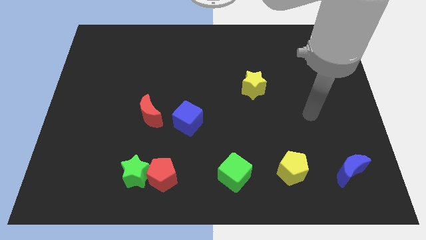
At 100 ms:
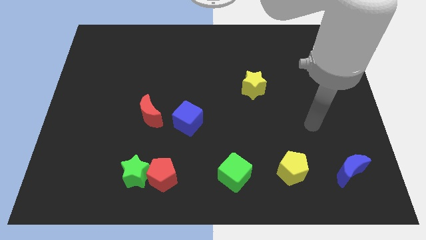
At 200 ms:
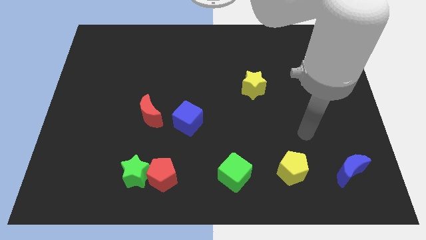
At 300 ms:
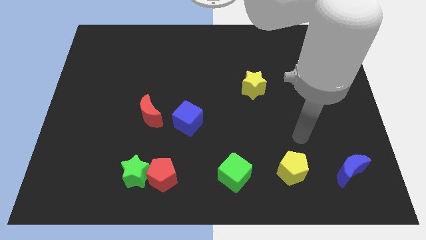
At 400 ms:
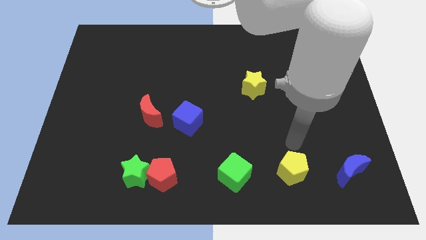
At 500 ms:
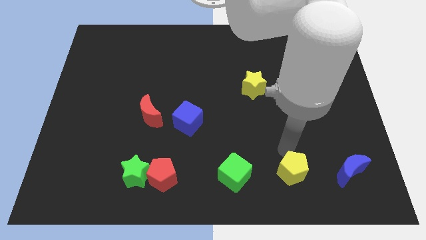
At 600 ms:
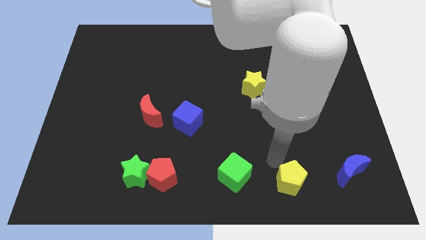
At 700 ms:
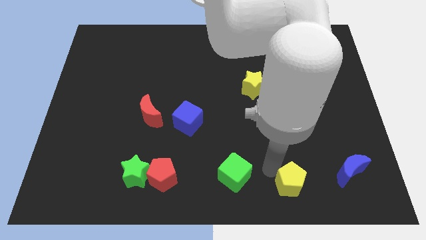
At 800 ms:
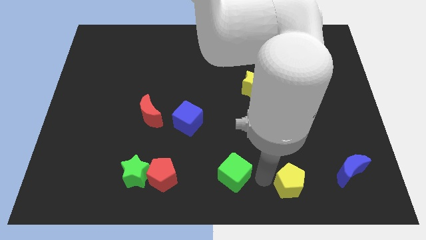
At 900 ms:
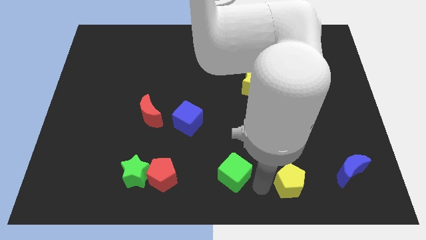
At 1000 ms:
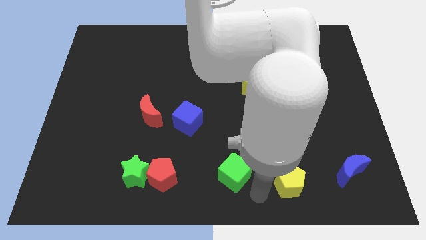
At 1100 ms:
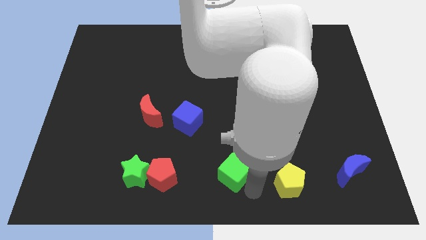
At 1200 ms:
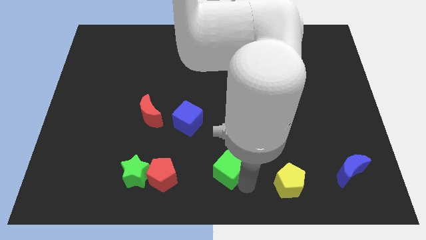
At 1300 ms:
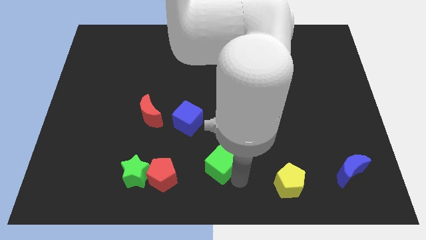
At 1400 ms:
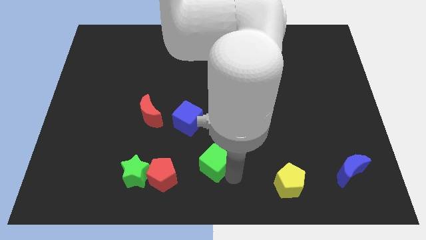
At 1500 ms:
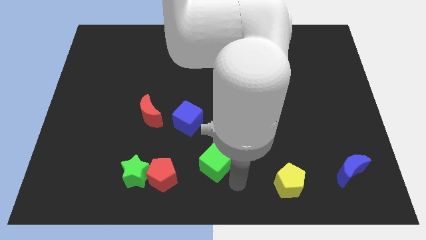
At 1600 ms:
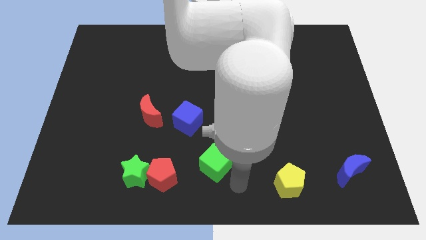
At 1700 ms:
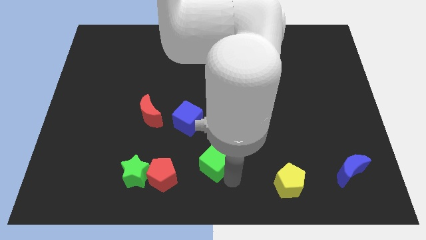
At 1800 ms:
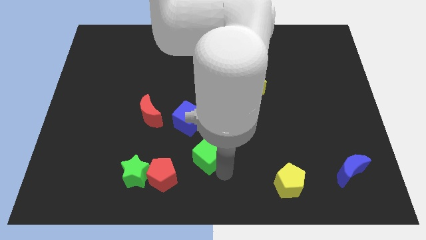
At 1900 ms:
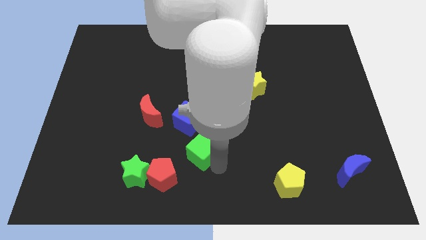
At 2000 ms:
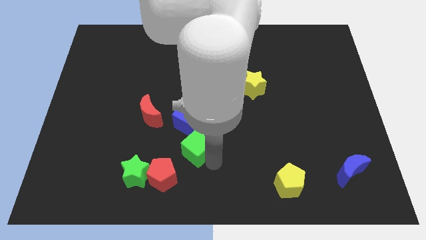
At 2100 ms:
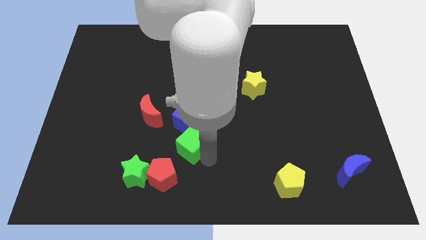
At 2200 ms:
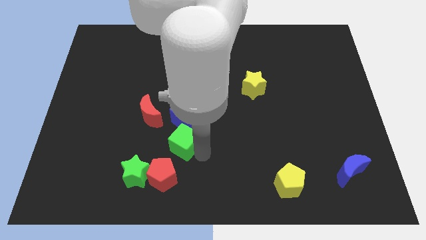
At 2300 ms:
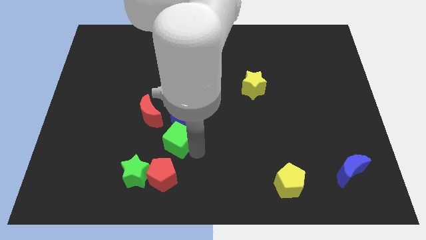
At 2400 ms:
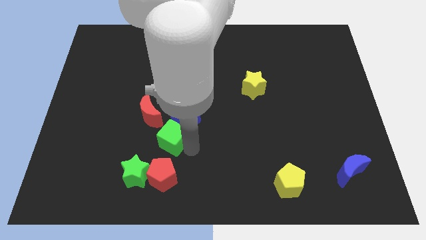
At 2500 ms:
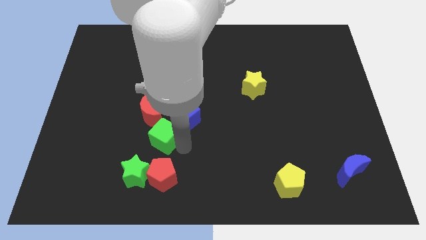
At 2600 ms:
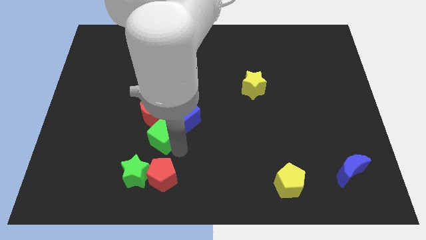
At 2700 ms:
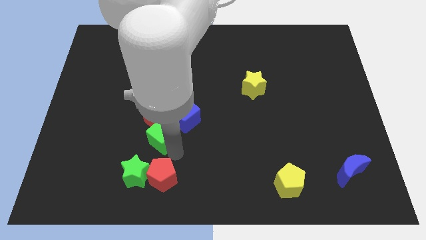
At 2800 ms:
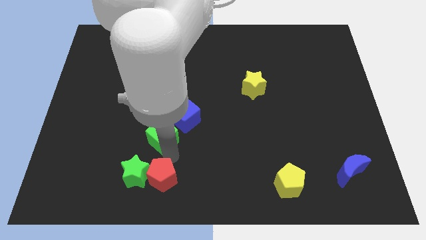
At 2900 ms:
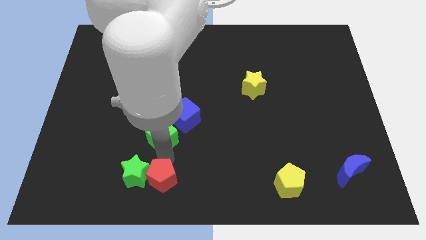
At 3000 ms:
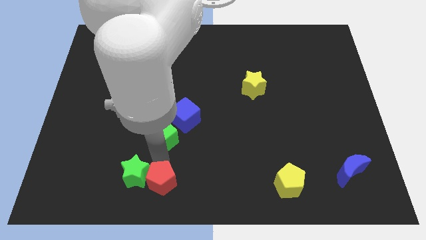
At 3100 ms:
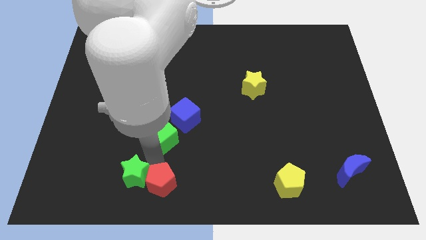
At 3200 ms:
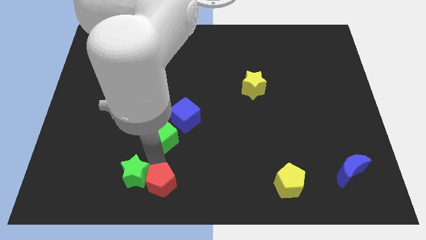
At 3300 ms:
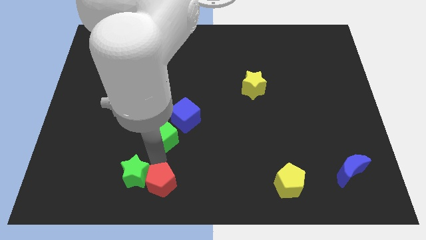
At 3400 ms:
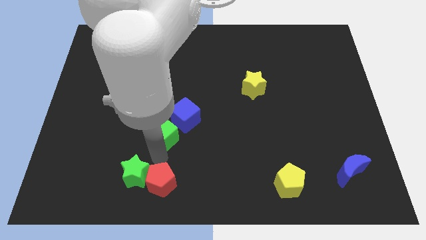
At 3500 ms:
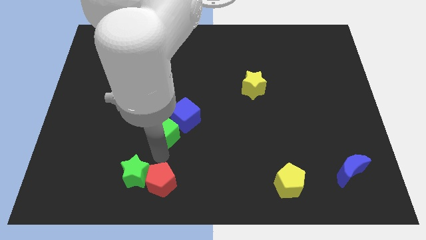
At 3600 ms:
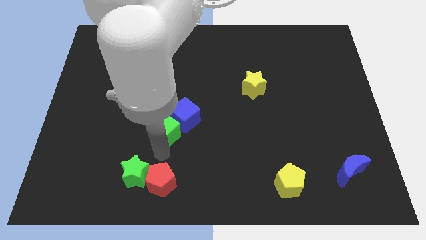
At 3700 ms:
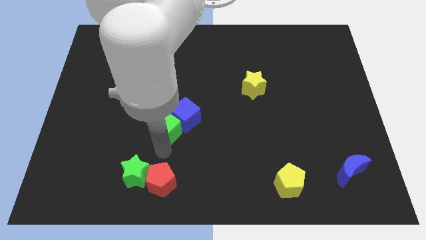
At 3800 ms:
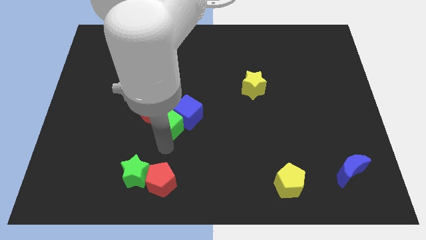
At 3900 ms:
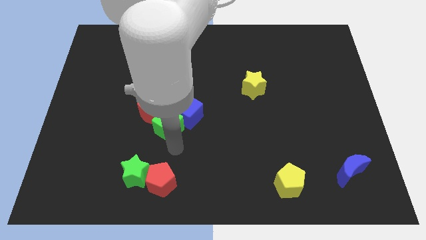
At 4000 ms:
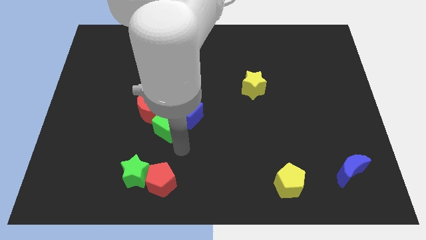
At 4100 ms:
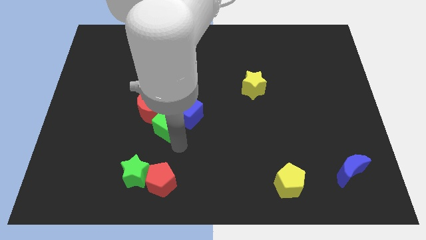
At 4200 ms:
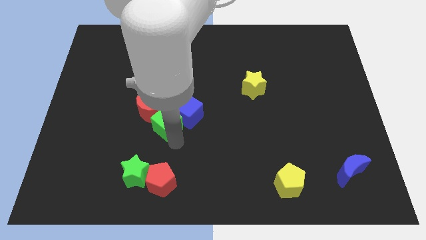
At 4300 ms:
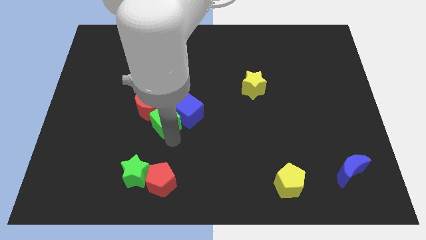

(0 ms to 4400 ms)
slide the green cube up and then to the left

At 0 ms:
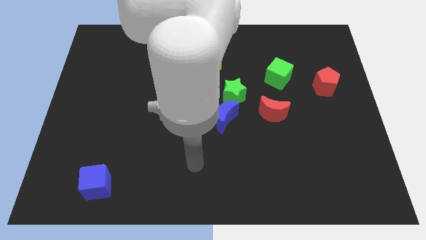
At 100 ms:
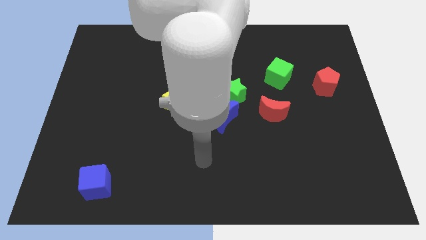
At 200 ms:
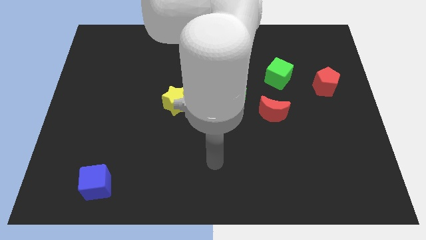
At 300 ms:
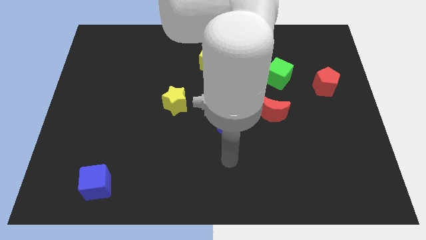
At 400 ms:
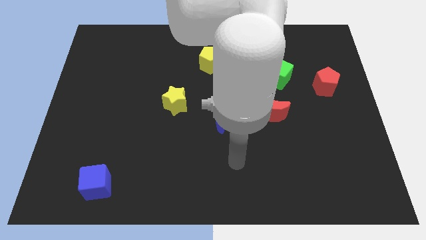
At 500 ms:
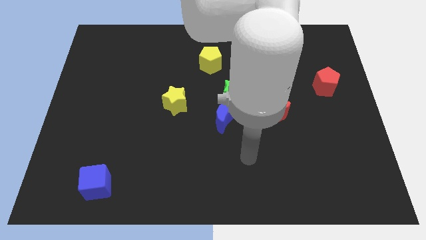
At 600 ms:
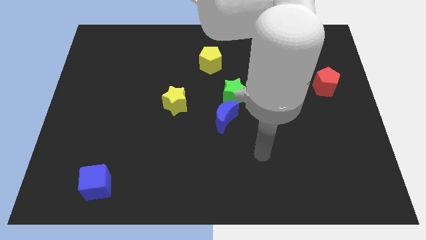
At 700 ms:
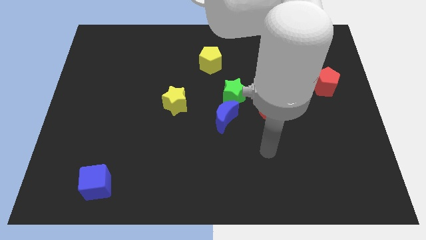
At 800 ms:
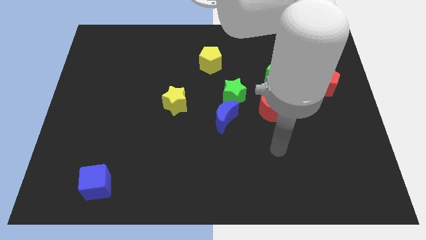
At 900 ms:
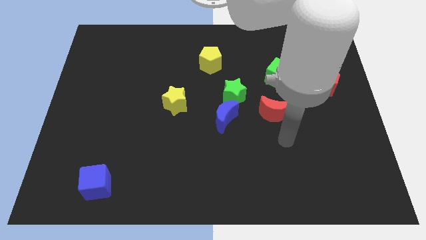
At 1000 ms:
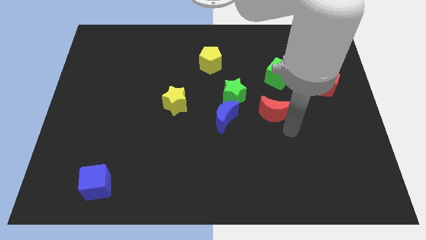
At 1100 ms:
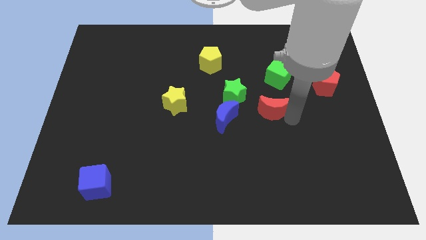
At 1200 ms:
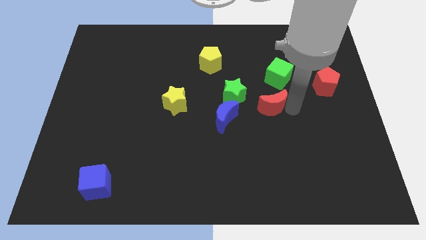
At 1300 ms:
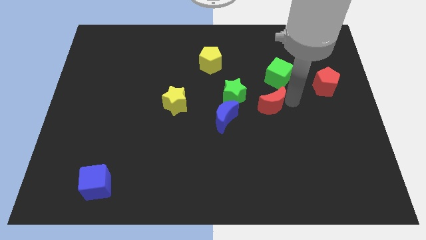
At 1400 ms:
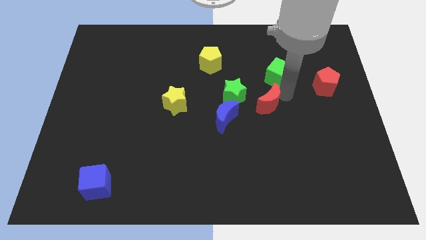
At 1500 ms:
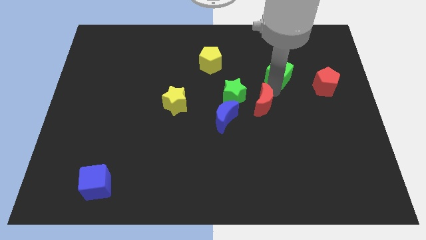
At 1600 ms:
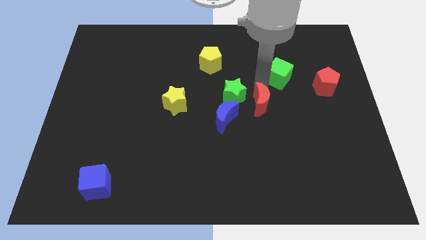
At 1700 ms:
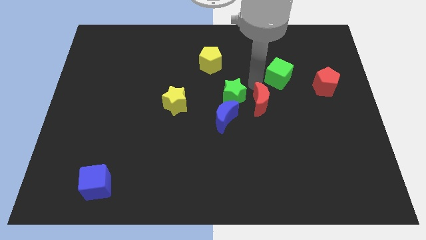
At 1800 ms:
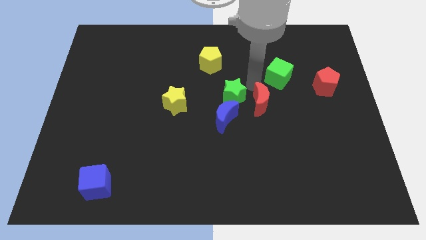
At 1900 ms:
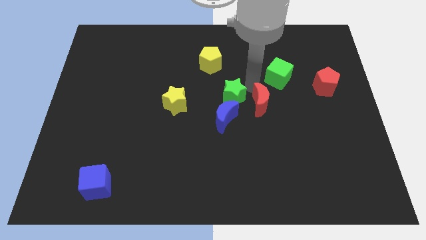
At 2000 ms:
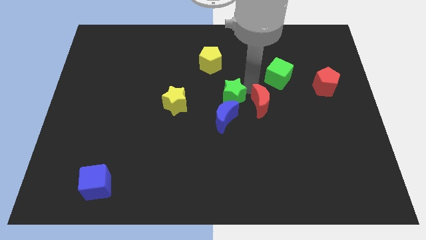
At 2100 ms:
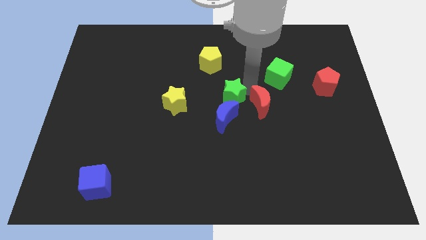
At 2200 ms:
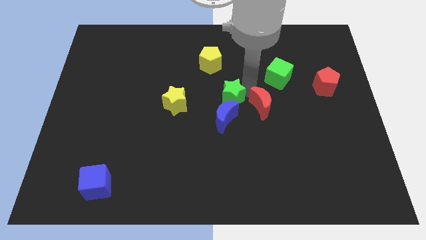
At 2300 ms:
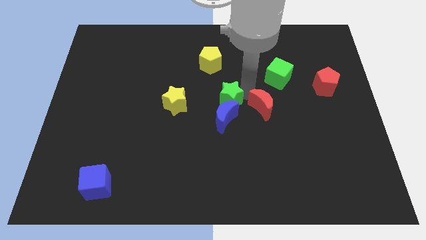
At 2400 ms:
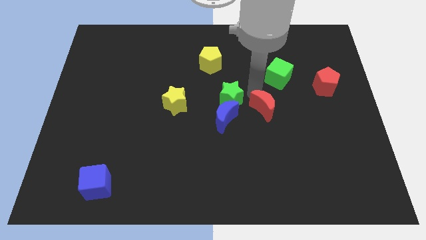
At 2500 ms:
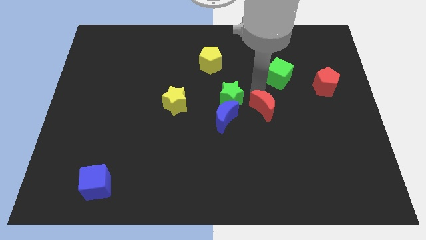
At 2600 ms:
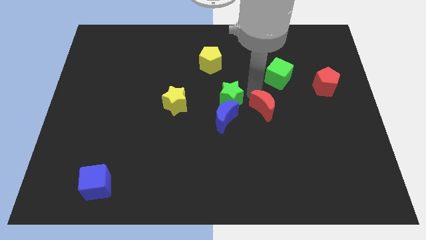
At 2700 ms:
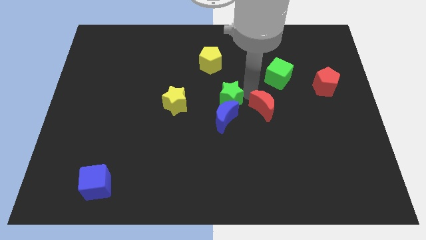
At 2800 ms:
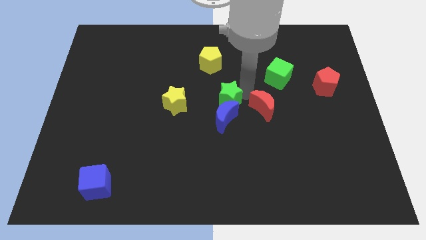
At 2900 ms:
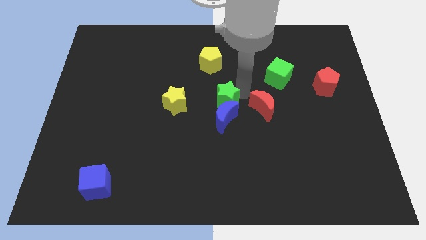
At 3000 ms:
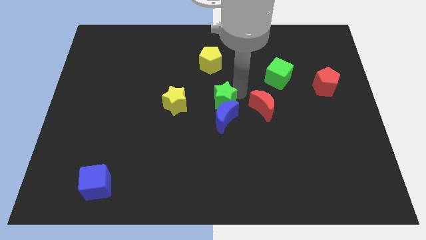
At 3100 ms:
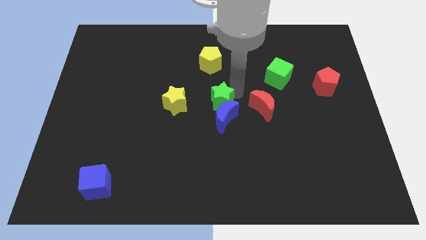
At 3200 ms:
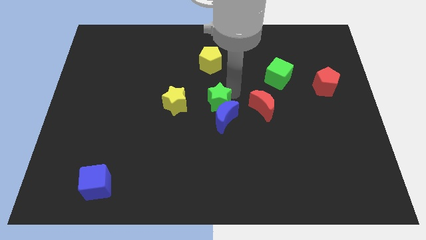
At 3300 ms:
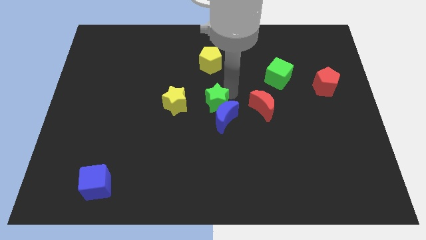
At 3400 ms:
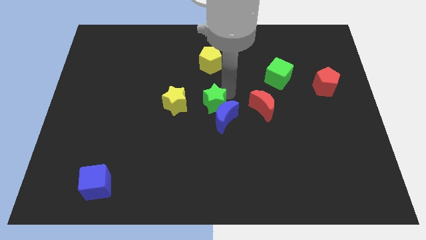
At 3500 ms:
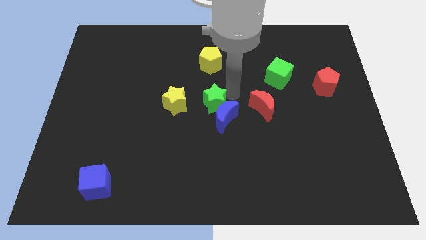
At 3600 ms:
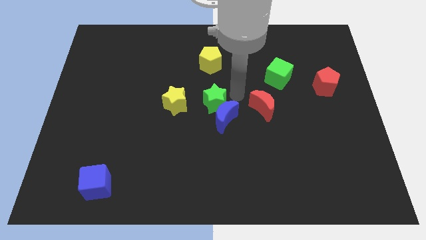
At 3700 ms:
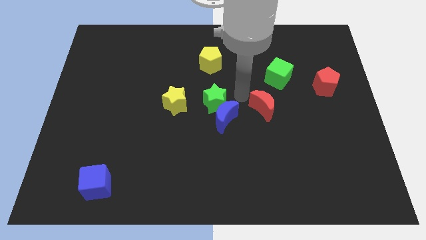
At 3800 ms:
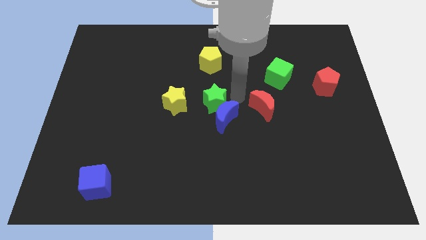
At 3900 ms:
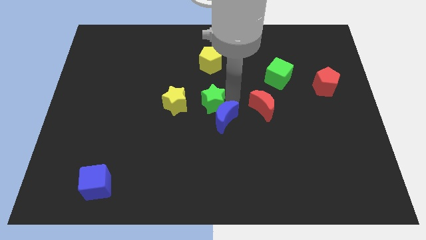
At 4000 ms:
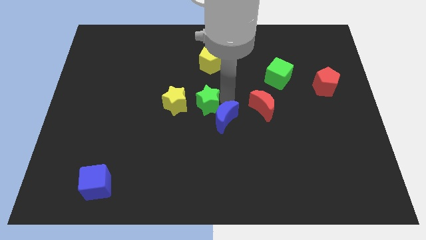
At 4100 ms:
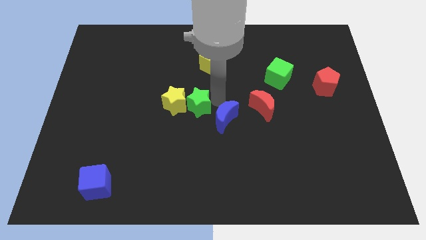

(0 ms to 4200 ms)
slightly slide the green star downwards and then left

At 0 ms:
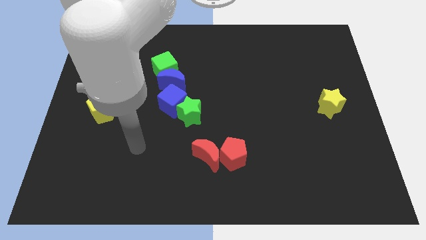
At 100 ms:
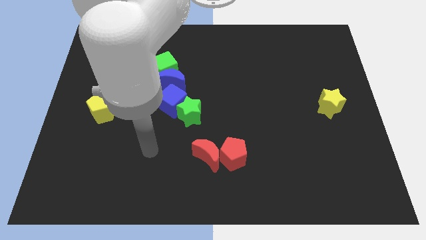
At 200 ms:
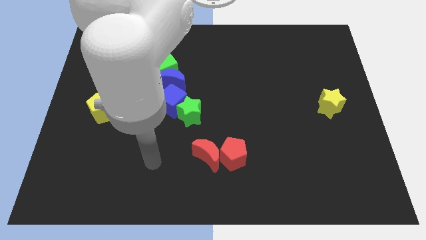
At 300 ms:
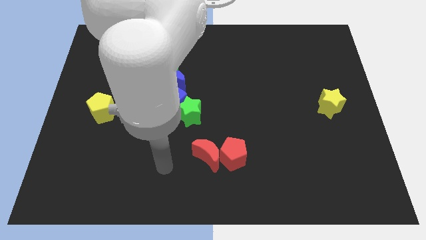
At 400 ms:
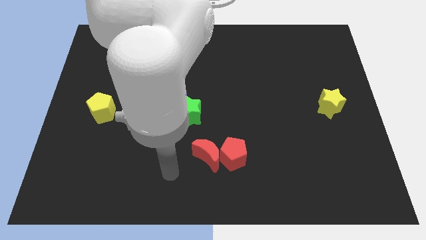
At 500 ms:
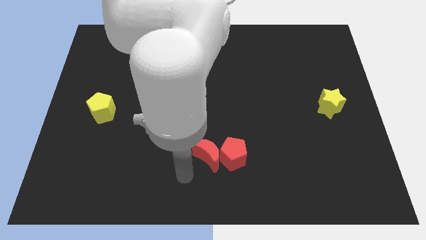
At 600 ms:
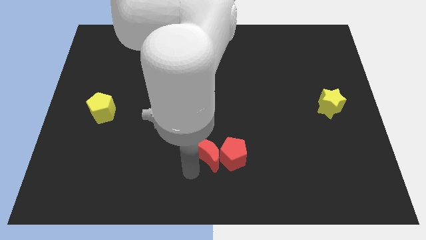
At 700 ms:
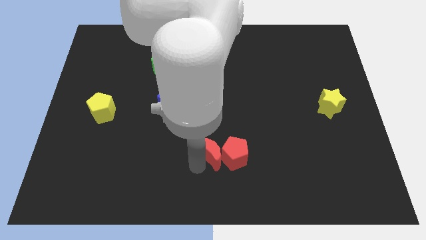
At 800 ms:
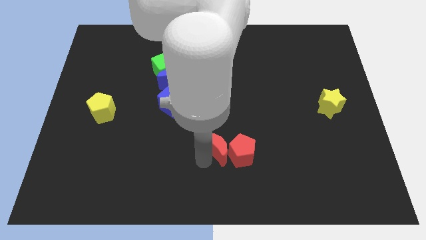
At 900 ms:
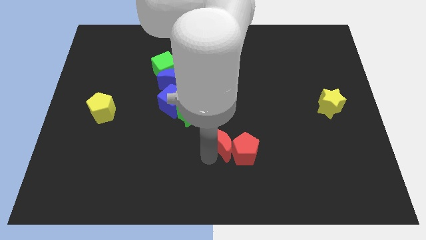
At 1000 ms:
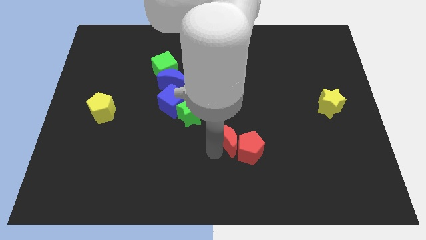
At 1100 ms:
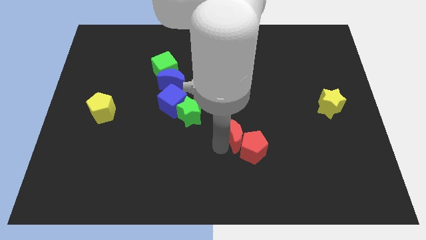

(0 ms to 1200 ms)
slightly slide the red moon upwards and right diagonally
